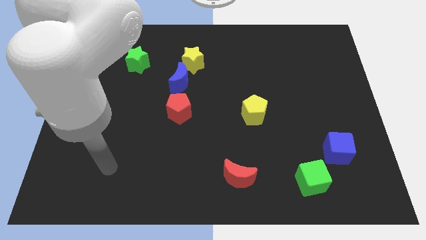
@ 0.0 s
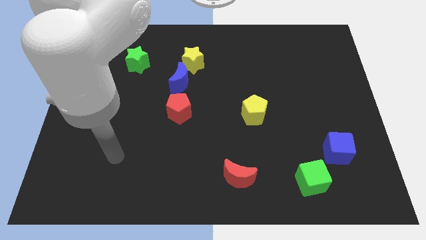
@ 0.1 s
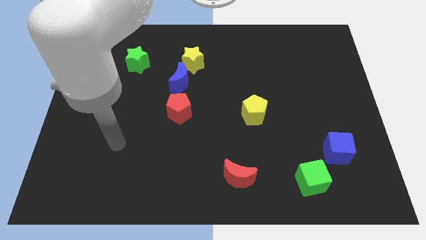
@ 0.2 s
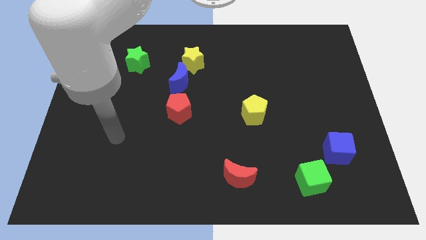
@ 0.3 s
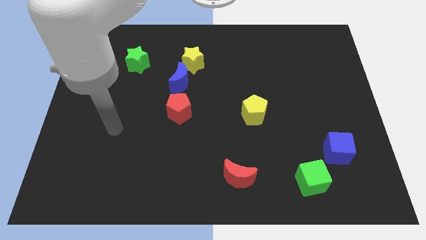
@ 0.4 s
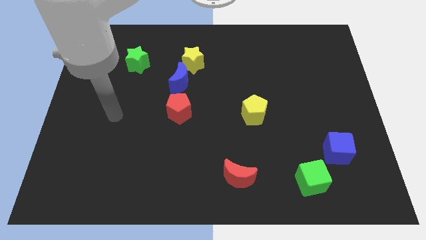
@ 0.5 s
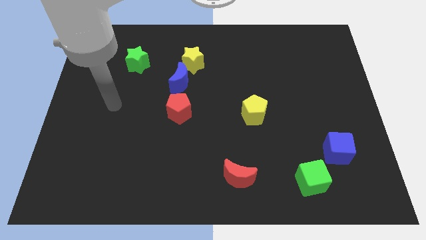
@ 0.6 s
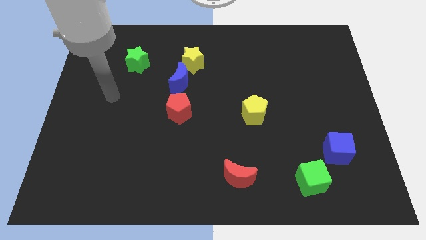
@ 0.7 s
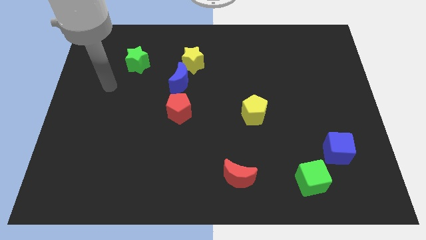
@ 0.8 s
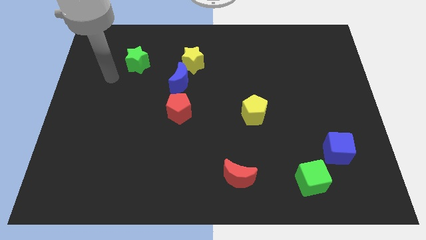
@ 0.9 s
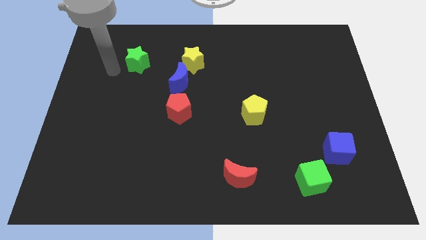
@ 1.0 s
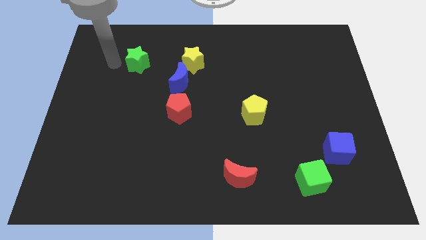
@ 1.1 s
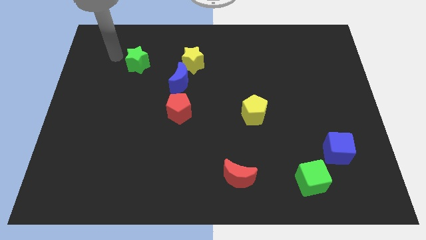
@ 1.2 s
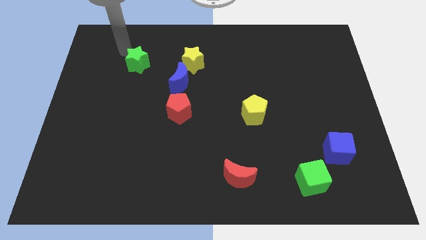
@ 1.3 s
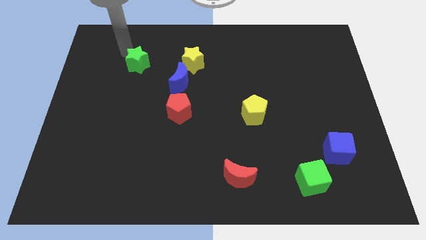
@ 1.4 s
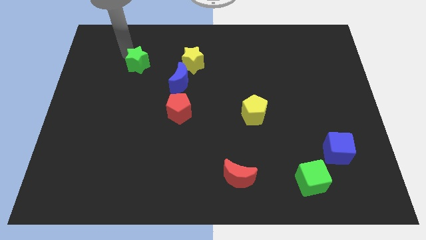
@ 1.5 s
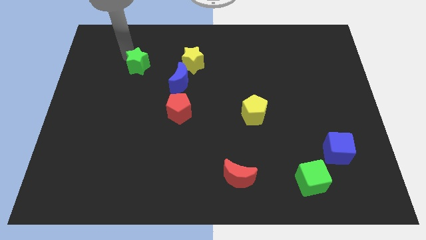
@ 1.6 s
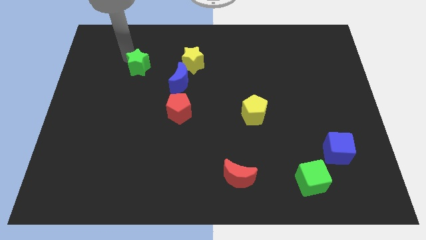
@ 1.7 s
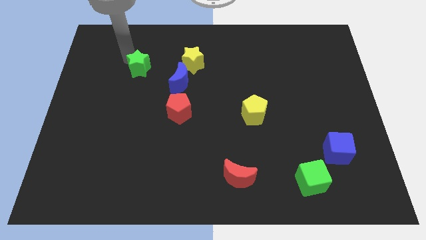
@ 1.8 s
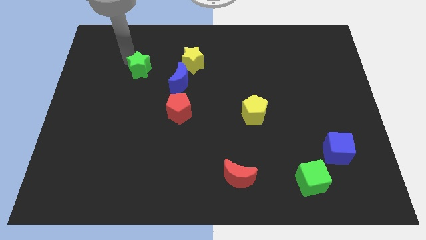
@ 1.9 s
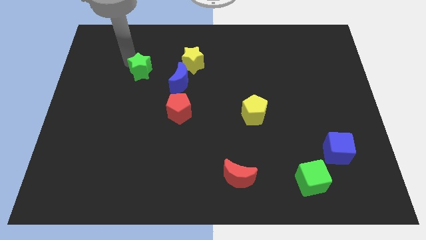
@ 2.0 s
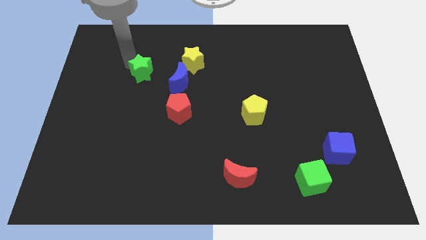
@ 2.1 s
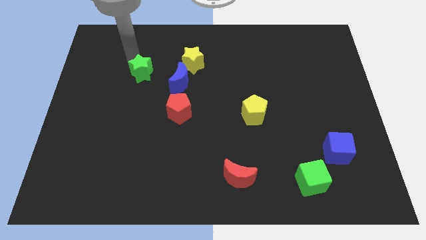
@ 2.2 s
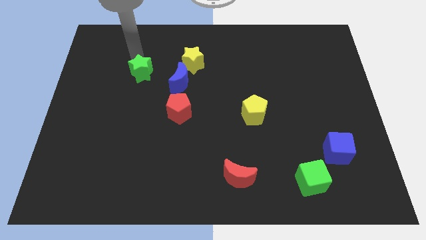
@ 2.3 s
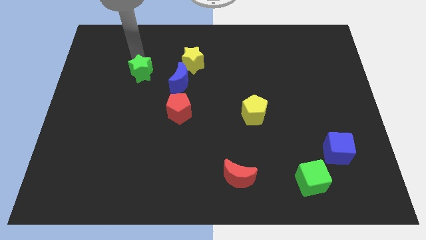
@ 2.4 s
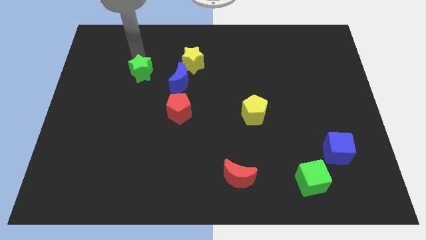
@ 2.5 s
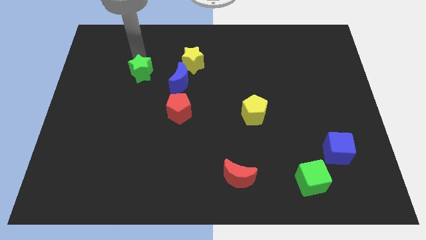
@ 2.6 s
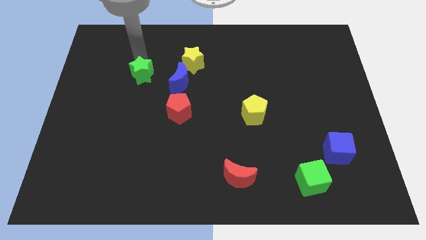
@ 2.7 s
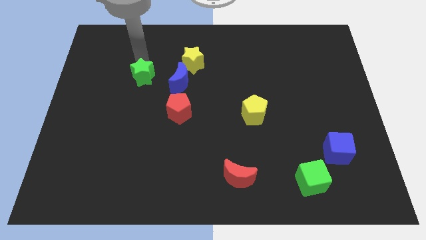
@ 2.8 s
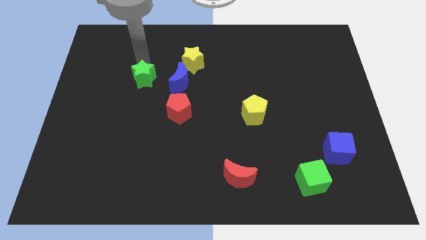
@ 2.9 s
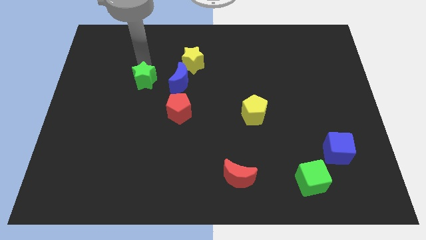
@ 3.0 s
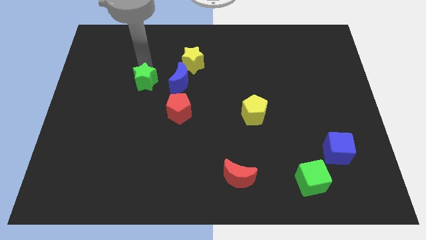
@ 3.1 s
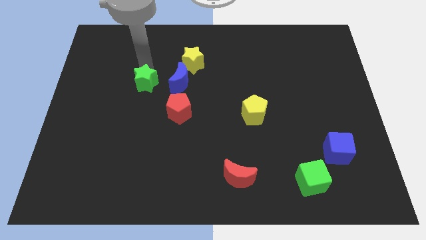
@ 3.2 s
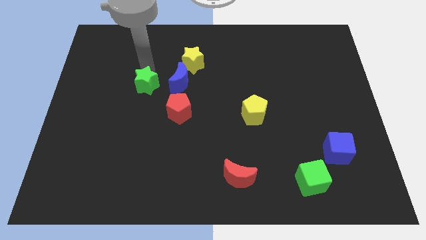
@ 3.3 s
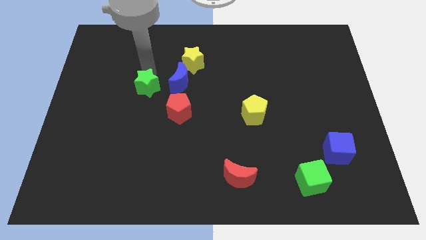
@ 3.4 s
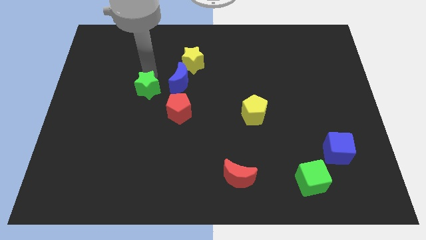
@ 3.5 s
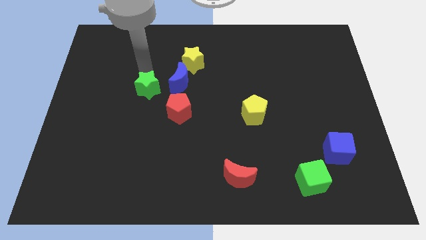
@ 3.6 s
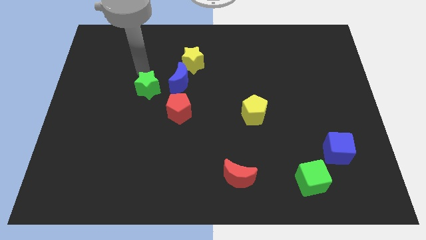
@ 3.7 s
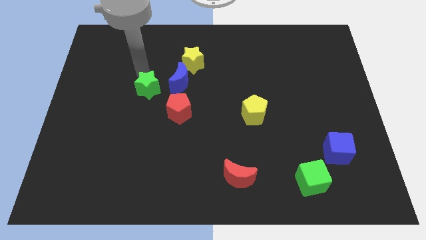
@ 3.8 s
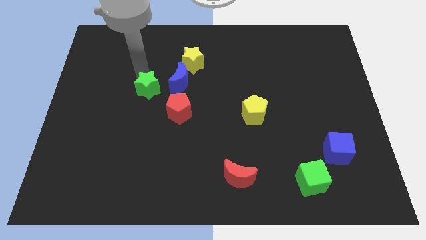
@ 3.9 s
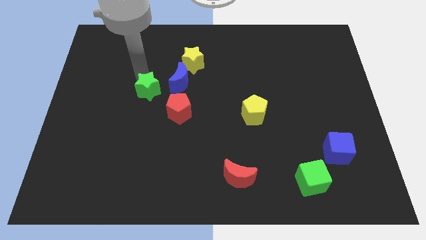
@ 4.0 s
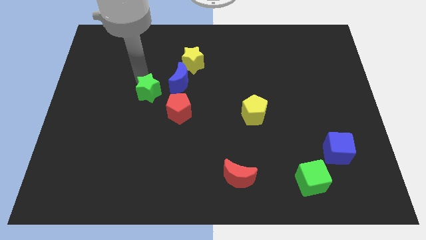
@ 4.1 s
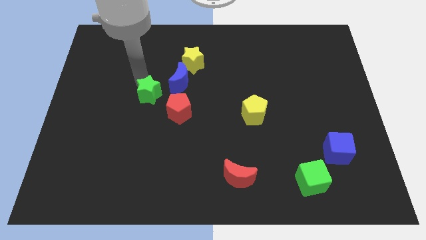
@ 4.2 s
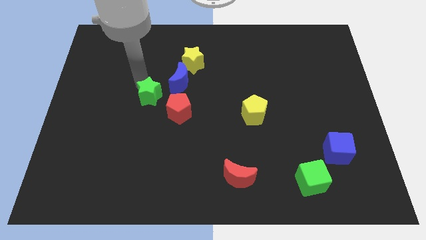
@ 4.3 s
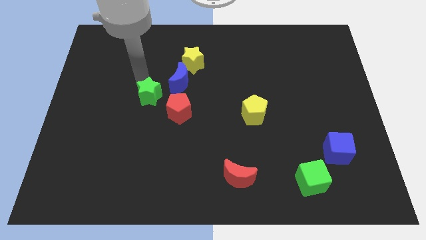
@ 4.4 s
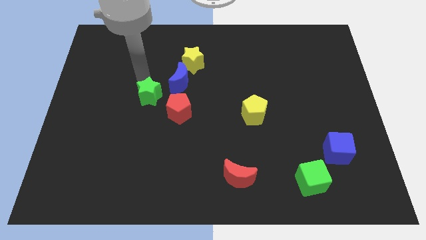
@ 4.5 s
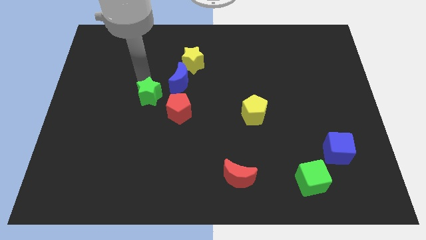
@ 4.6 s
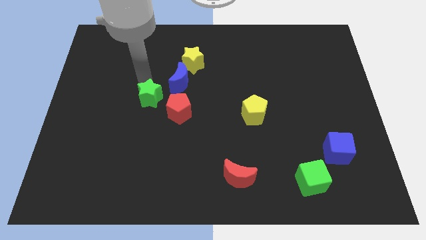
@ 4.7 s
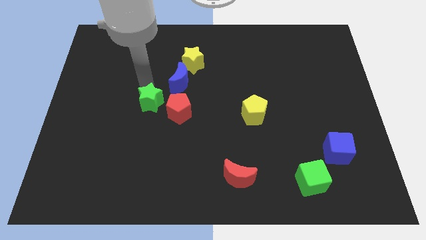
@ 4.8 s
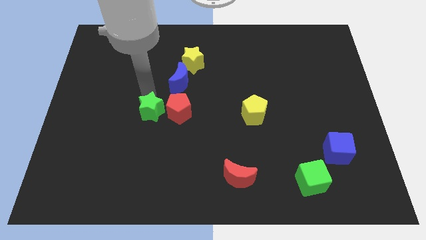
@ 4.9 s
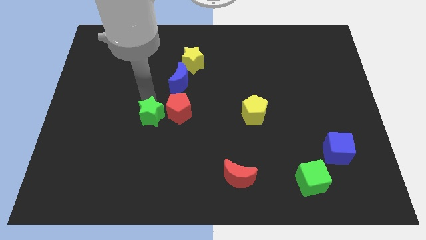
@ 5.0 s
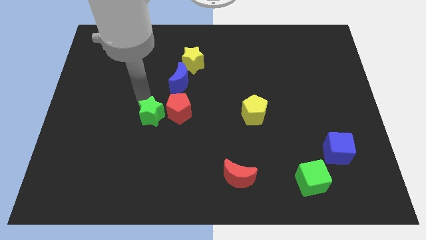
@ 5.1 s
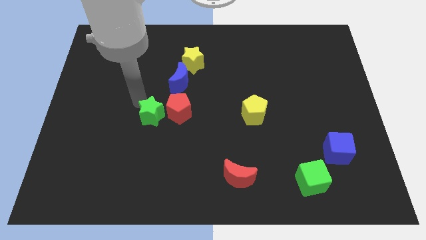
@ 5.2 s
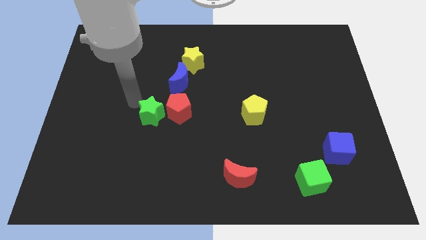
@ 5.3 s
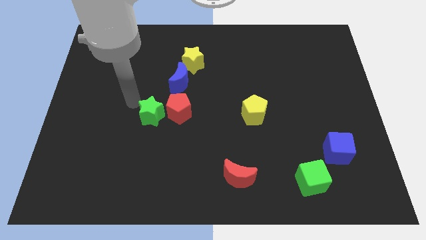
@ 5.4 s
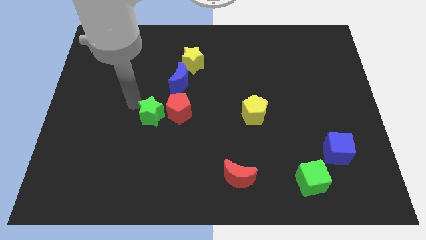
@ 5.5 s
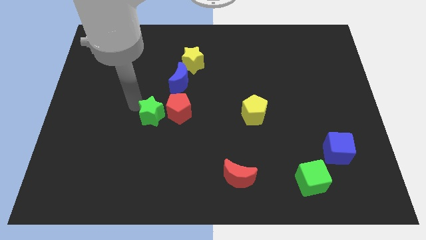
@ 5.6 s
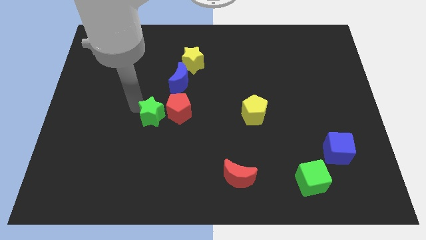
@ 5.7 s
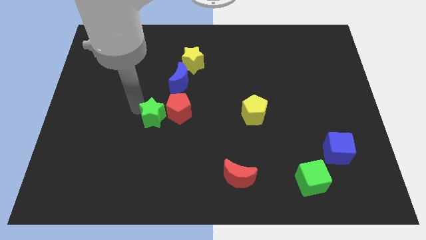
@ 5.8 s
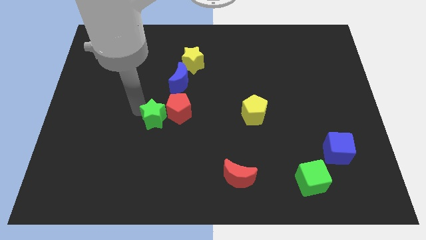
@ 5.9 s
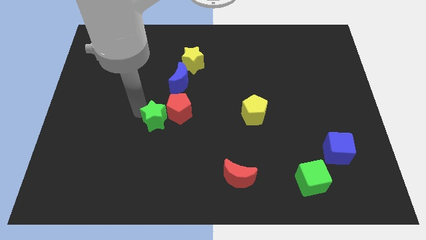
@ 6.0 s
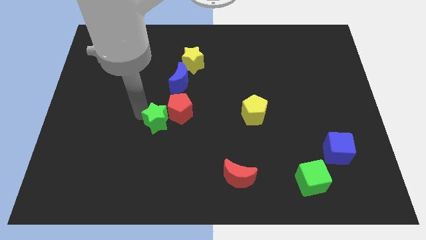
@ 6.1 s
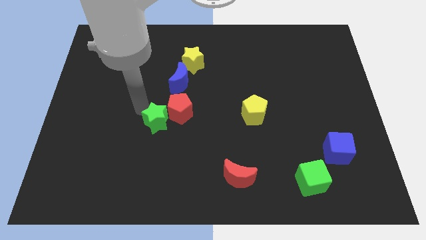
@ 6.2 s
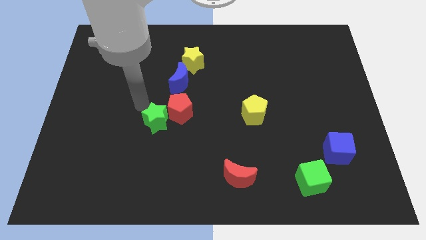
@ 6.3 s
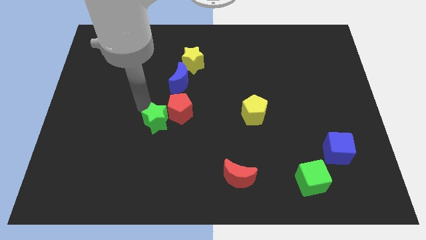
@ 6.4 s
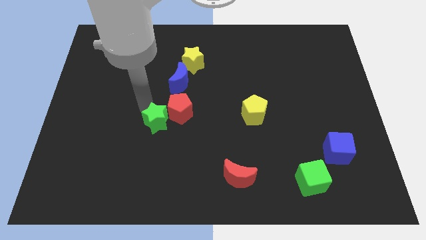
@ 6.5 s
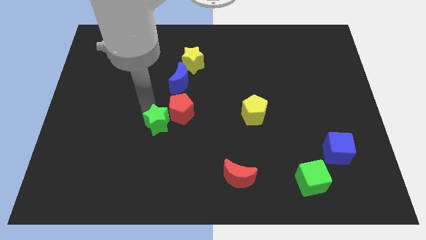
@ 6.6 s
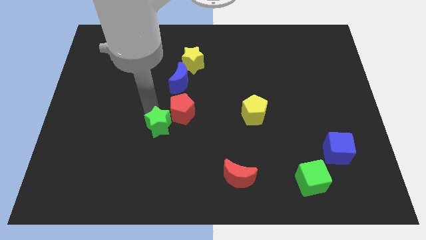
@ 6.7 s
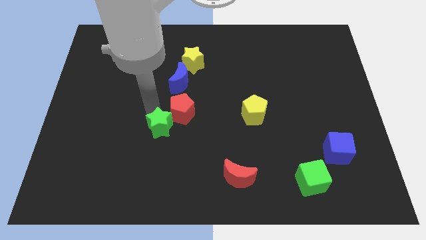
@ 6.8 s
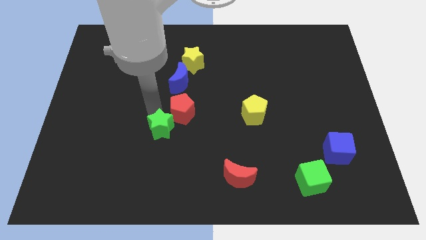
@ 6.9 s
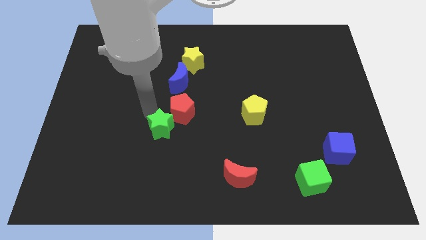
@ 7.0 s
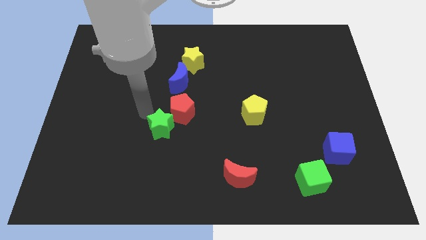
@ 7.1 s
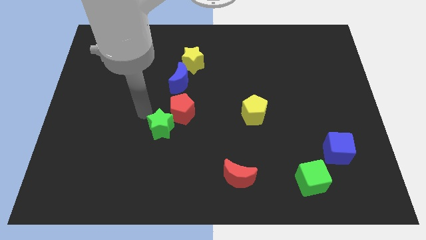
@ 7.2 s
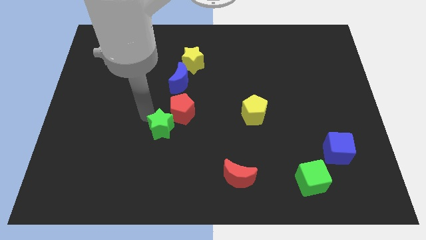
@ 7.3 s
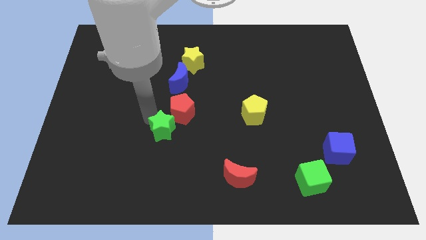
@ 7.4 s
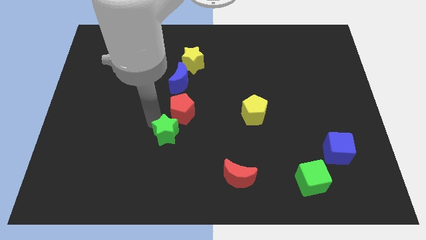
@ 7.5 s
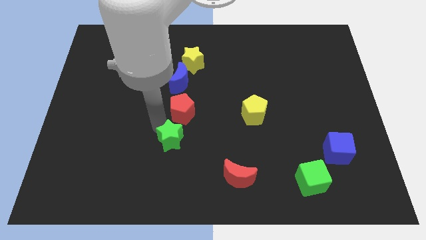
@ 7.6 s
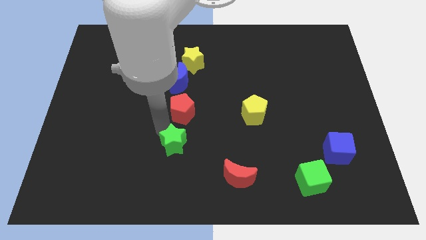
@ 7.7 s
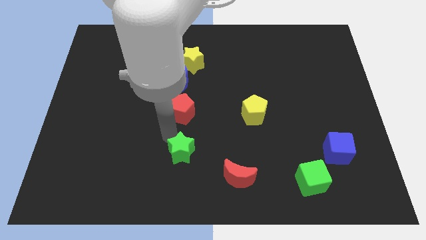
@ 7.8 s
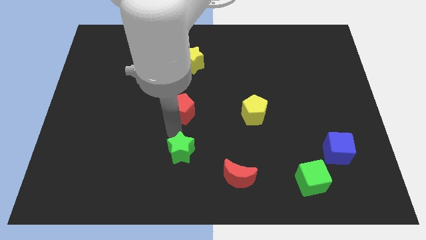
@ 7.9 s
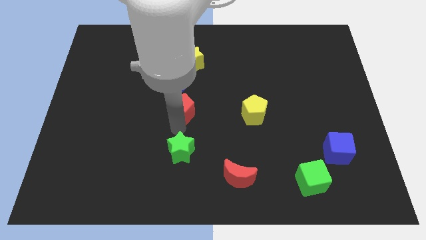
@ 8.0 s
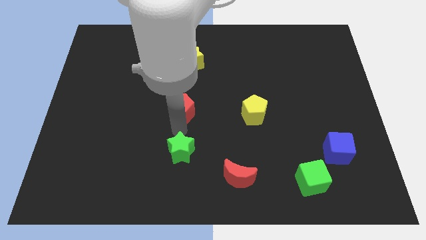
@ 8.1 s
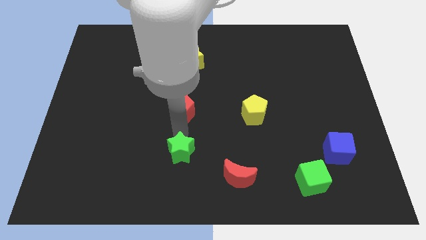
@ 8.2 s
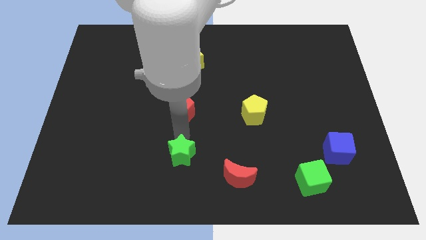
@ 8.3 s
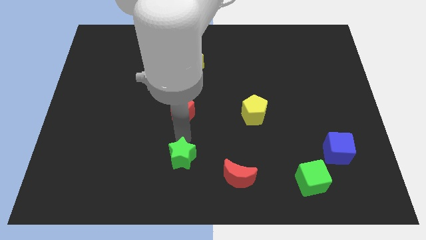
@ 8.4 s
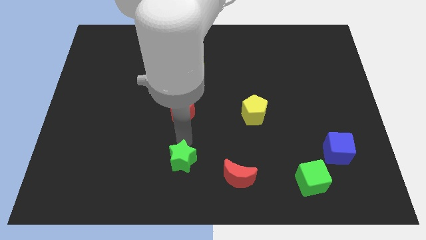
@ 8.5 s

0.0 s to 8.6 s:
push the green star to the bottom side
